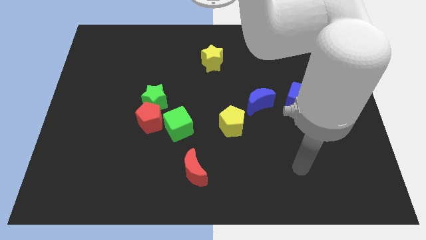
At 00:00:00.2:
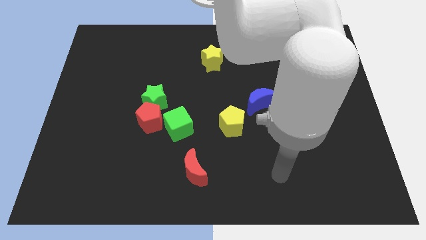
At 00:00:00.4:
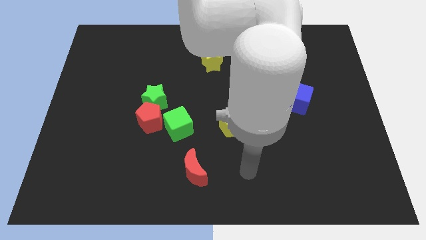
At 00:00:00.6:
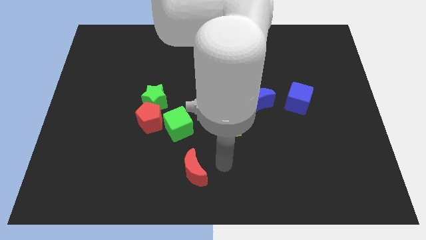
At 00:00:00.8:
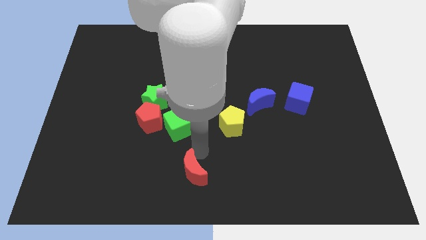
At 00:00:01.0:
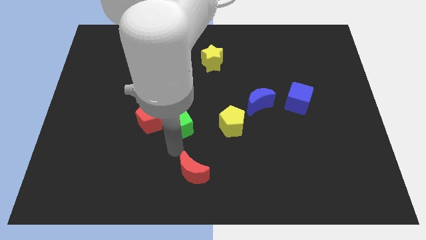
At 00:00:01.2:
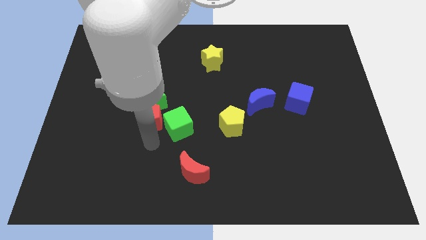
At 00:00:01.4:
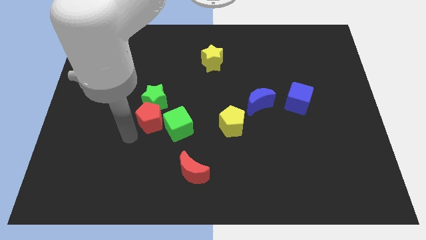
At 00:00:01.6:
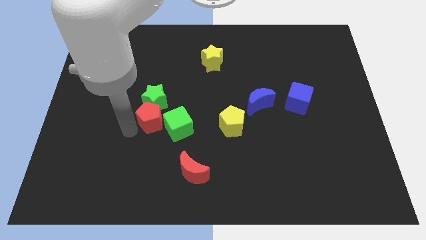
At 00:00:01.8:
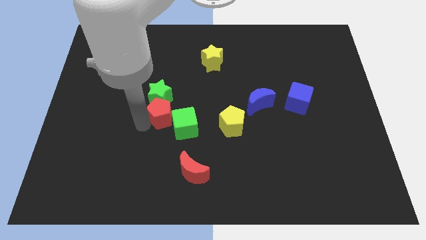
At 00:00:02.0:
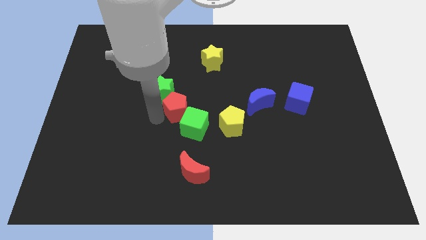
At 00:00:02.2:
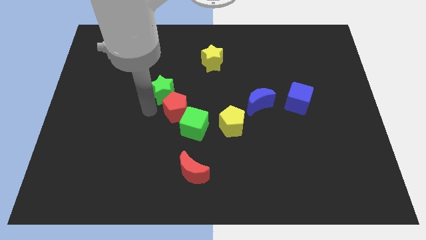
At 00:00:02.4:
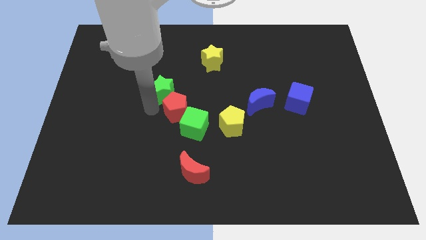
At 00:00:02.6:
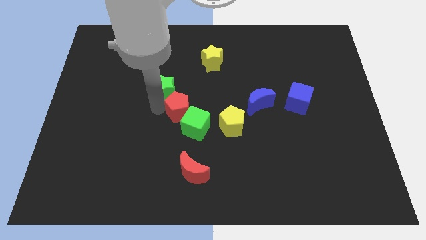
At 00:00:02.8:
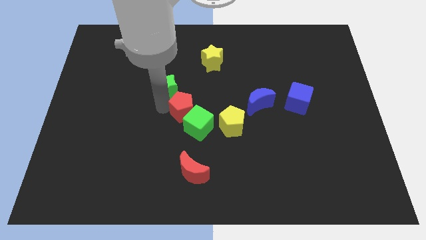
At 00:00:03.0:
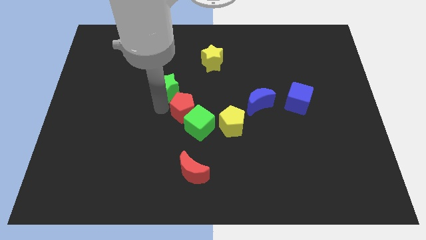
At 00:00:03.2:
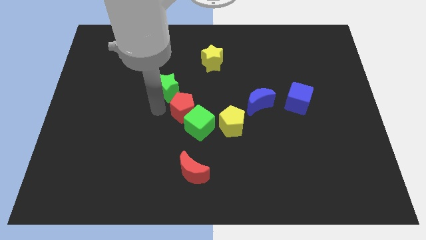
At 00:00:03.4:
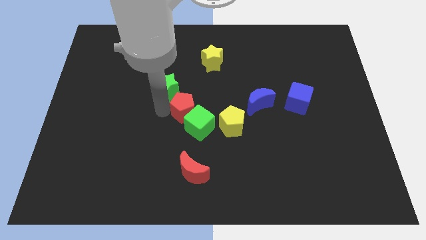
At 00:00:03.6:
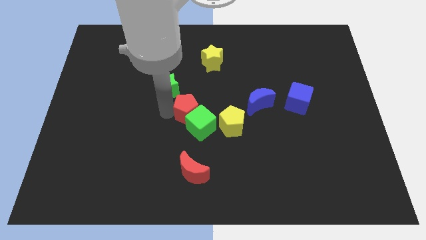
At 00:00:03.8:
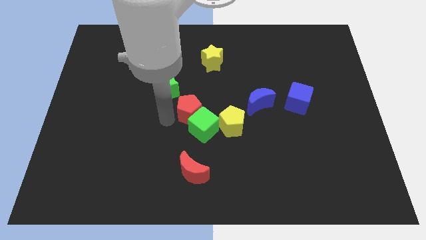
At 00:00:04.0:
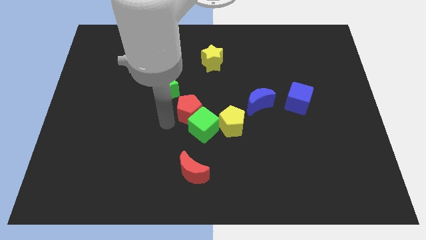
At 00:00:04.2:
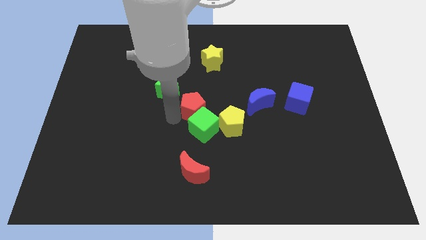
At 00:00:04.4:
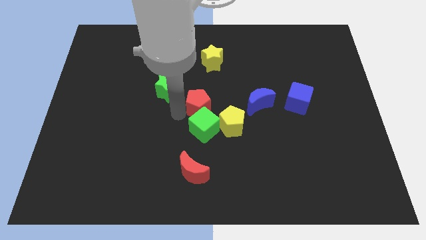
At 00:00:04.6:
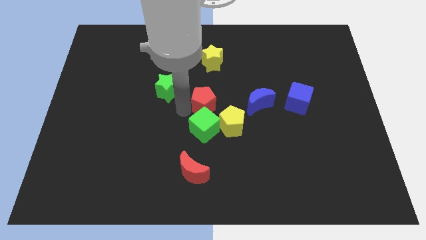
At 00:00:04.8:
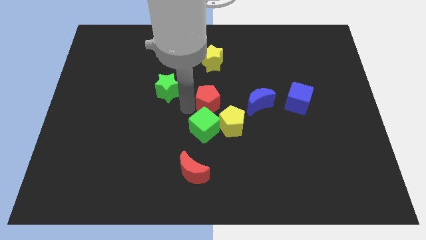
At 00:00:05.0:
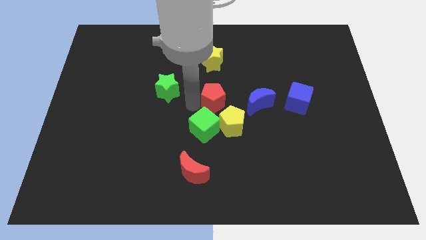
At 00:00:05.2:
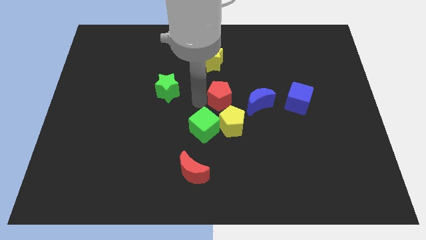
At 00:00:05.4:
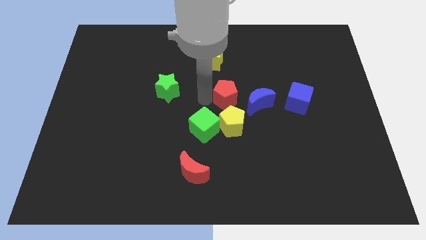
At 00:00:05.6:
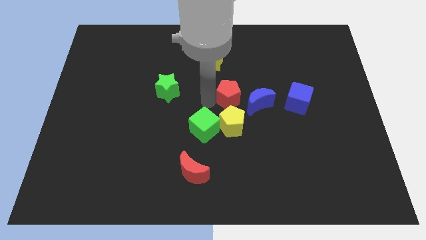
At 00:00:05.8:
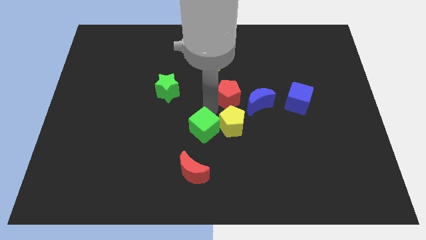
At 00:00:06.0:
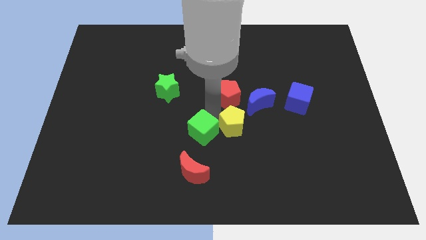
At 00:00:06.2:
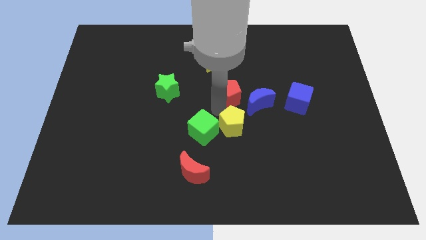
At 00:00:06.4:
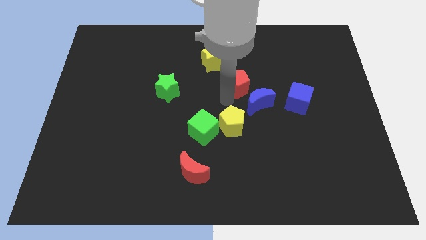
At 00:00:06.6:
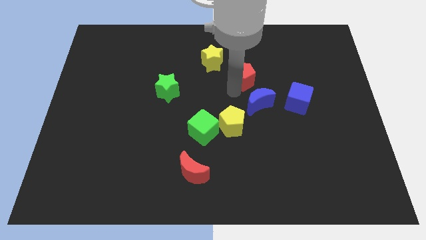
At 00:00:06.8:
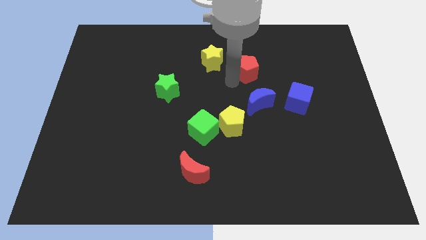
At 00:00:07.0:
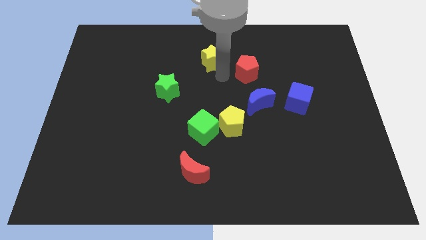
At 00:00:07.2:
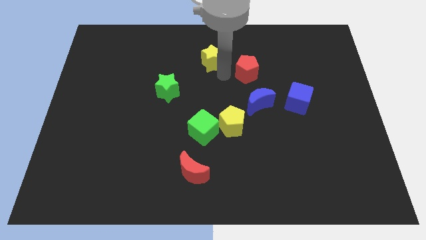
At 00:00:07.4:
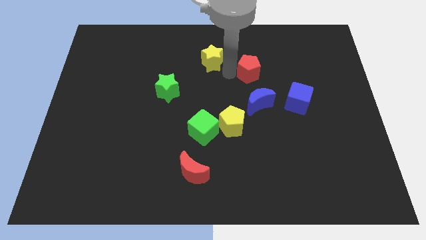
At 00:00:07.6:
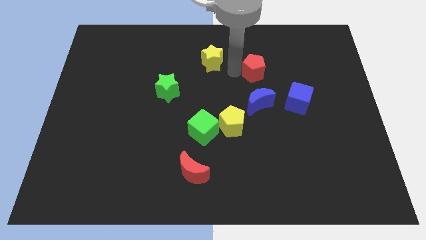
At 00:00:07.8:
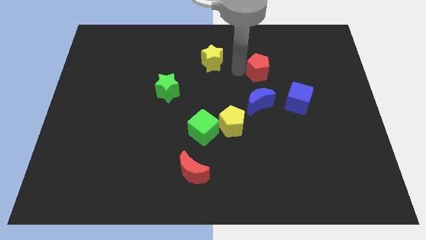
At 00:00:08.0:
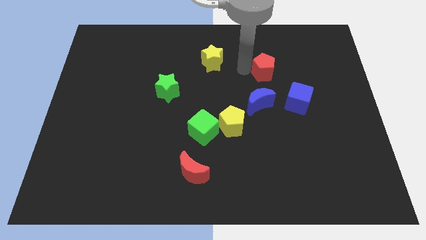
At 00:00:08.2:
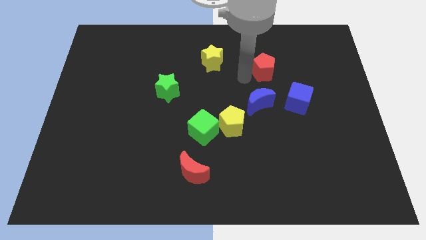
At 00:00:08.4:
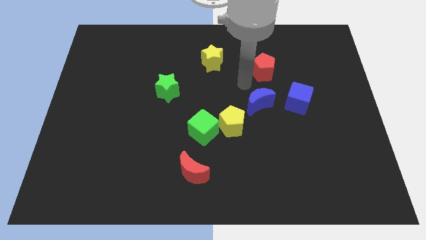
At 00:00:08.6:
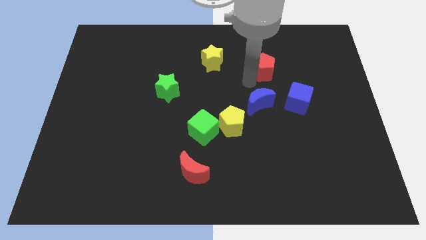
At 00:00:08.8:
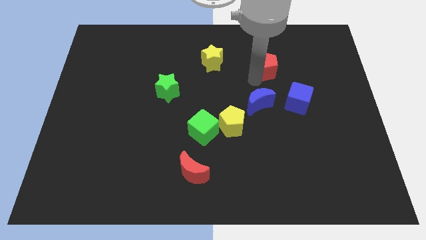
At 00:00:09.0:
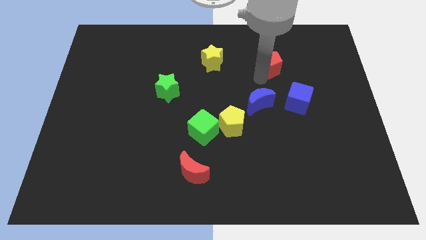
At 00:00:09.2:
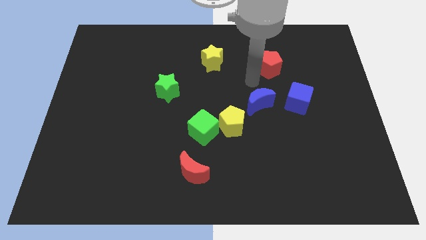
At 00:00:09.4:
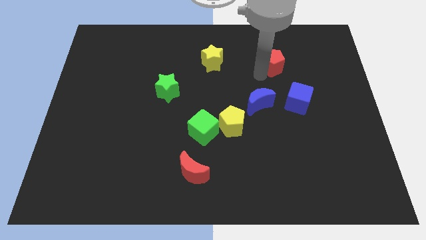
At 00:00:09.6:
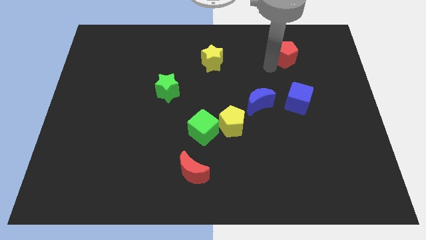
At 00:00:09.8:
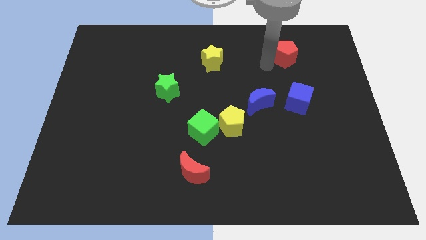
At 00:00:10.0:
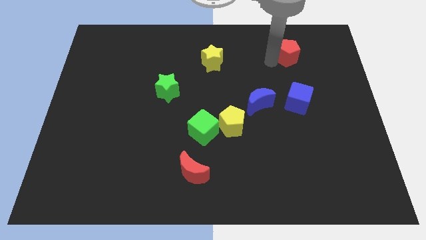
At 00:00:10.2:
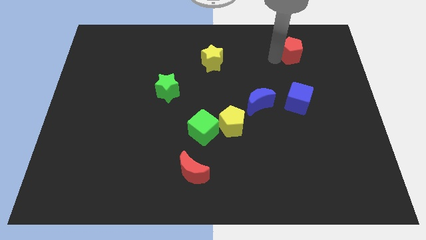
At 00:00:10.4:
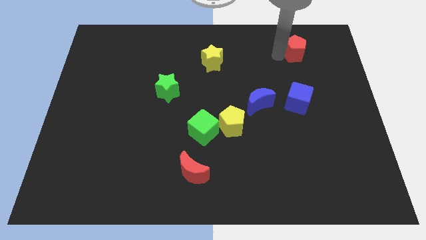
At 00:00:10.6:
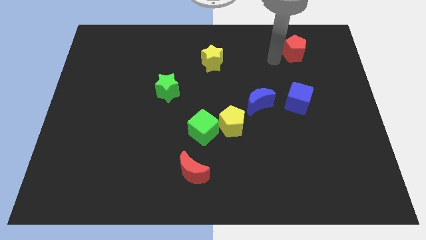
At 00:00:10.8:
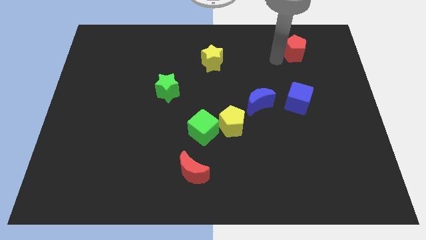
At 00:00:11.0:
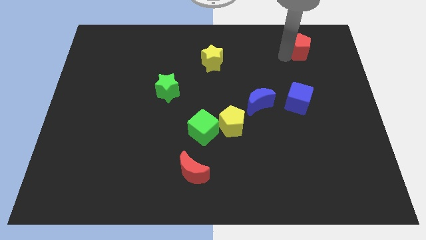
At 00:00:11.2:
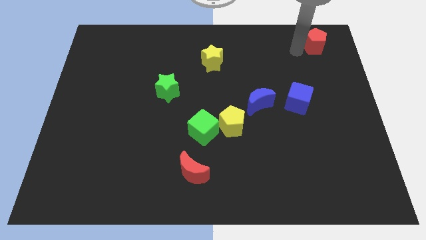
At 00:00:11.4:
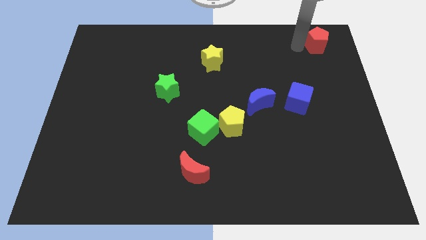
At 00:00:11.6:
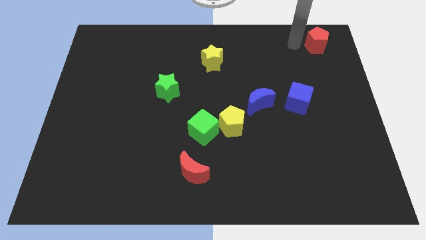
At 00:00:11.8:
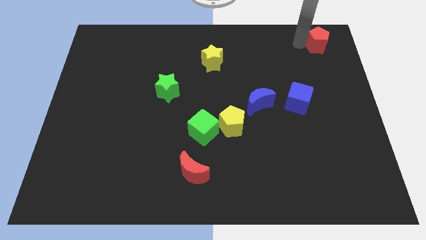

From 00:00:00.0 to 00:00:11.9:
push the red pentagon to the top right

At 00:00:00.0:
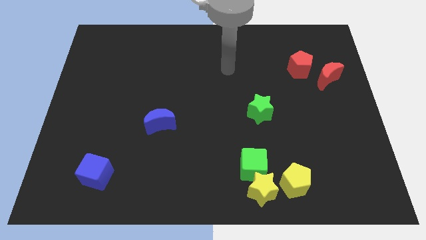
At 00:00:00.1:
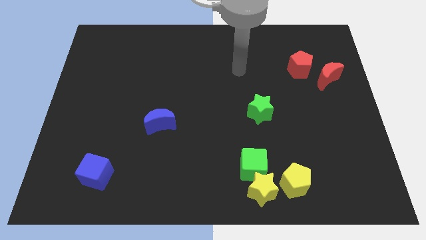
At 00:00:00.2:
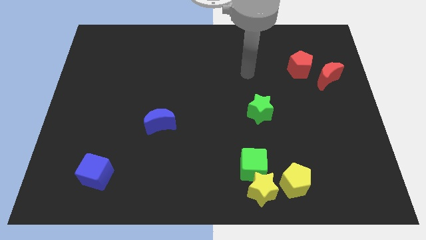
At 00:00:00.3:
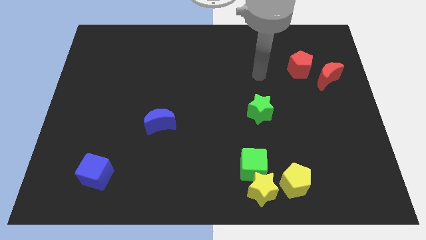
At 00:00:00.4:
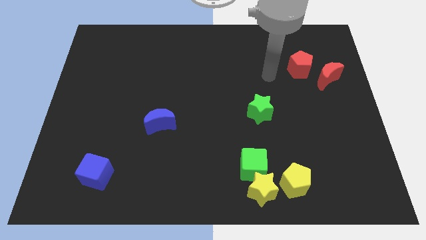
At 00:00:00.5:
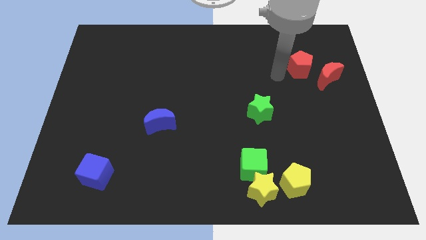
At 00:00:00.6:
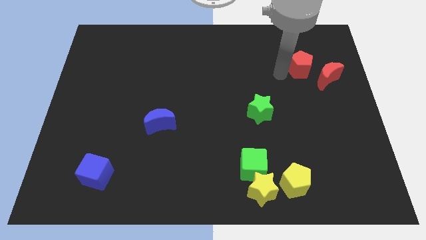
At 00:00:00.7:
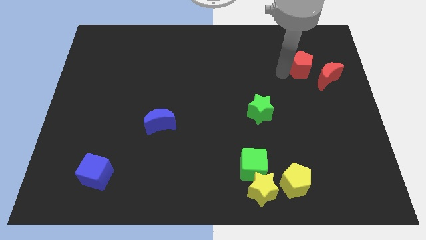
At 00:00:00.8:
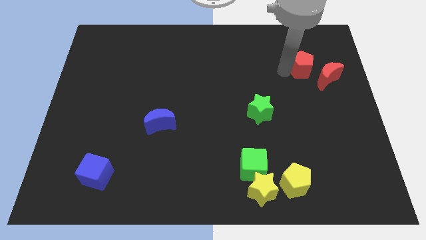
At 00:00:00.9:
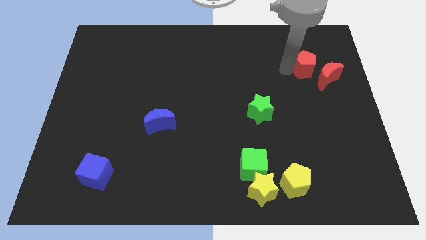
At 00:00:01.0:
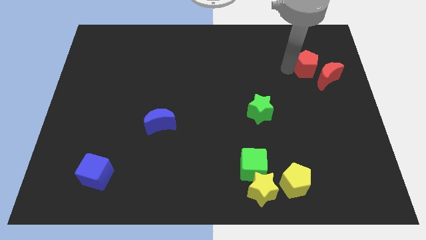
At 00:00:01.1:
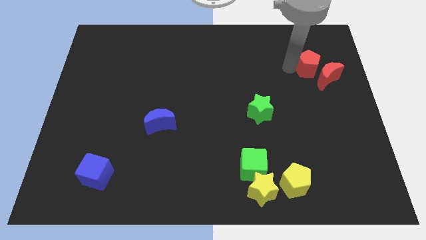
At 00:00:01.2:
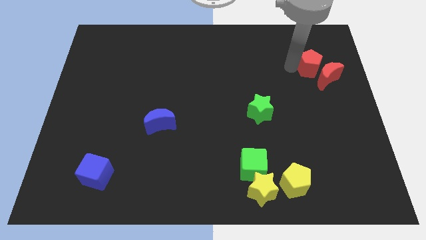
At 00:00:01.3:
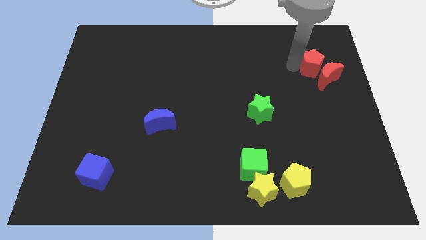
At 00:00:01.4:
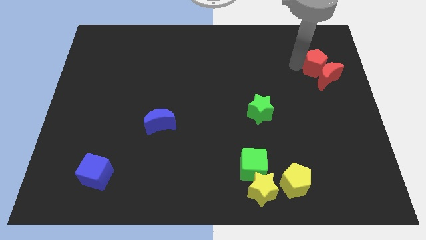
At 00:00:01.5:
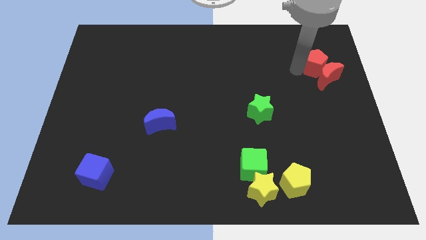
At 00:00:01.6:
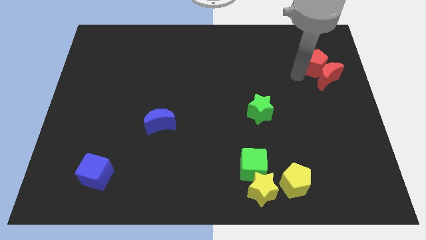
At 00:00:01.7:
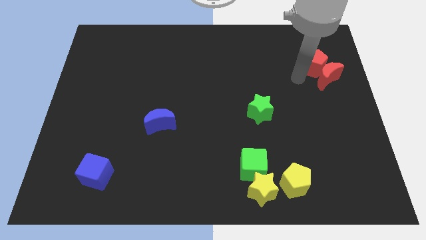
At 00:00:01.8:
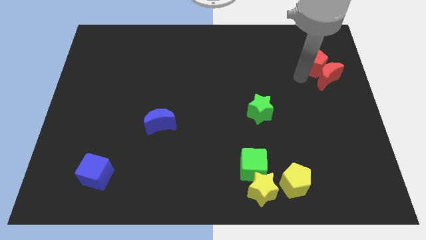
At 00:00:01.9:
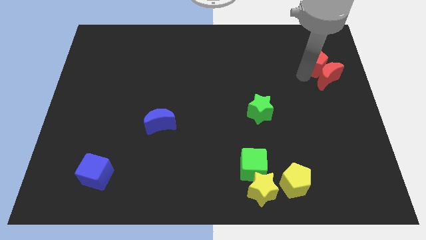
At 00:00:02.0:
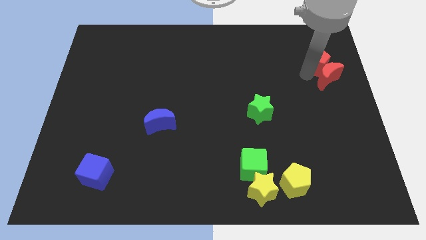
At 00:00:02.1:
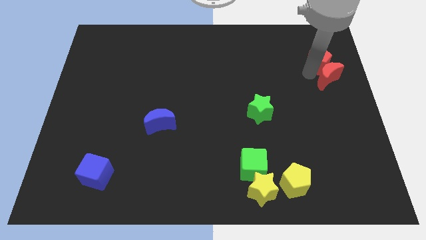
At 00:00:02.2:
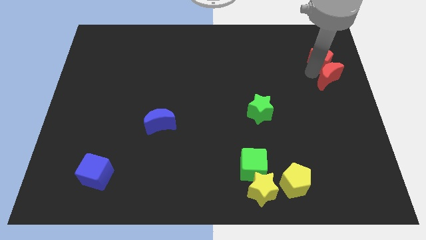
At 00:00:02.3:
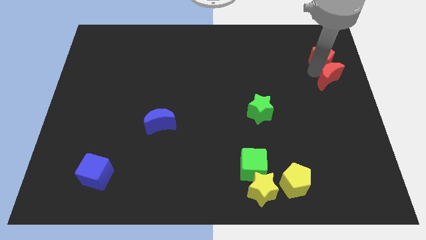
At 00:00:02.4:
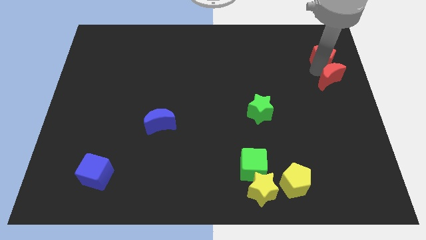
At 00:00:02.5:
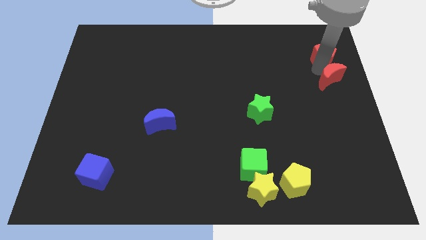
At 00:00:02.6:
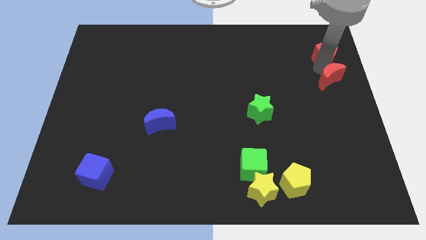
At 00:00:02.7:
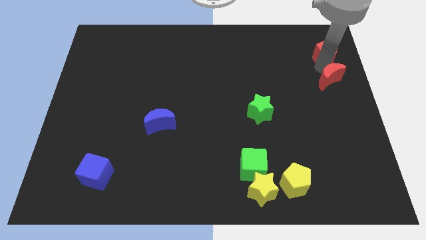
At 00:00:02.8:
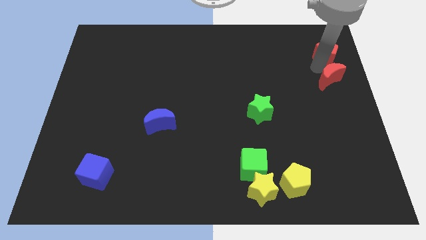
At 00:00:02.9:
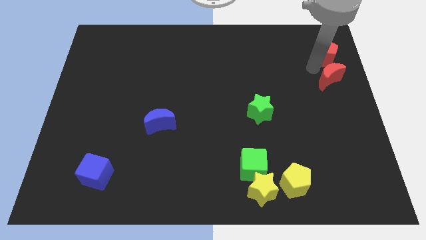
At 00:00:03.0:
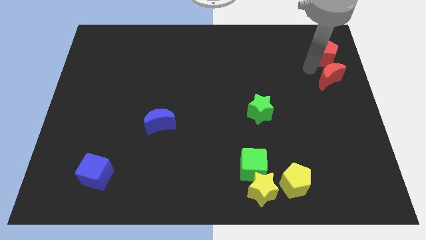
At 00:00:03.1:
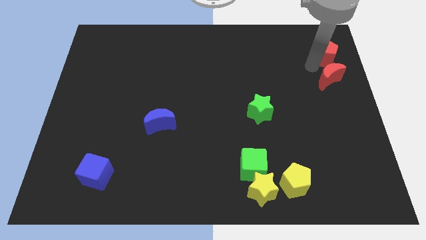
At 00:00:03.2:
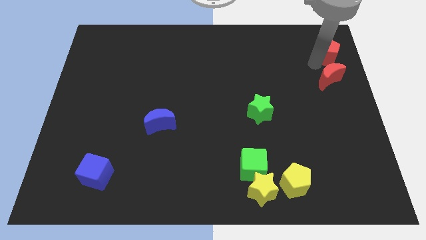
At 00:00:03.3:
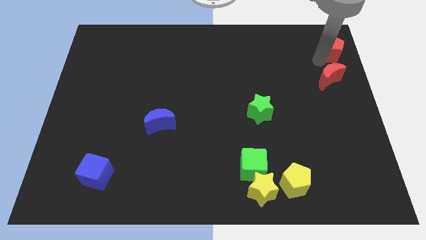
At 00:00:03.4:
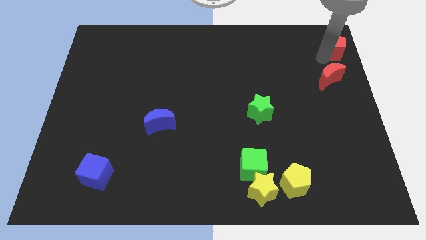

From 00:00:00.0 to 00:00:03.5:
move the red pentagon to the top right of the board
